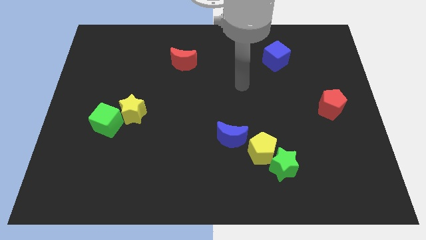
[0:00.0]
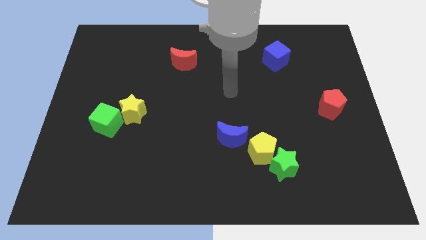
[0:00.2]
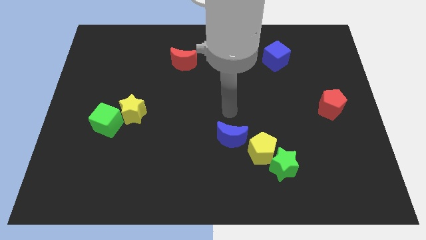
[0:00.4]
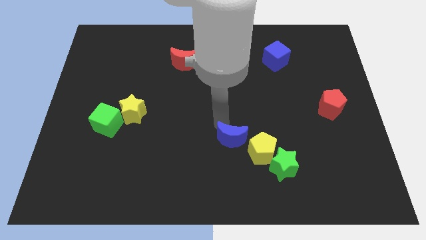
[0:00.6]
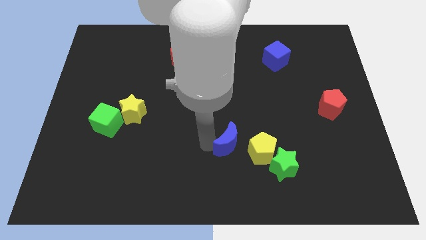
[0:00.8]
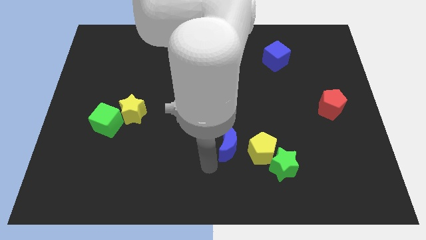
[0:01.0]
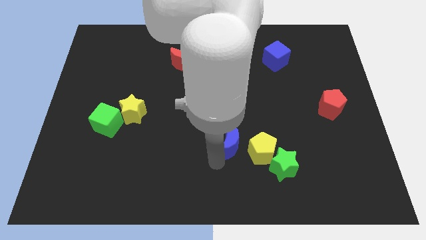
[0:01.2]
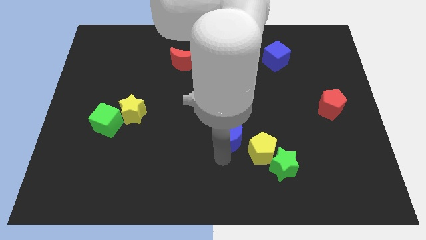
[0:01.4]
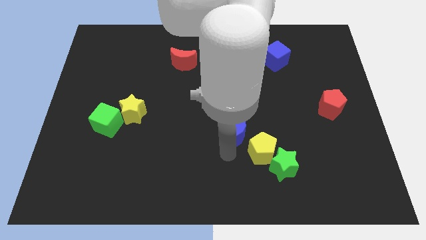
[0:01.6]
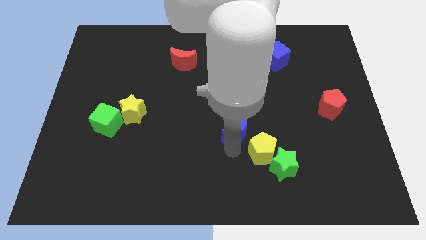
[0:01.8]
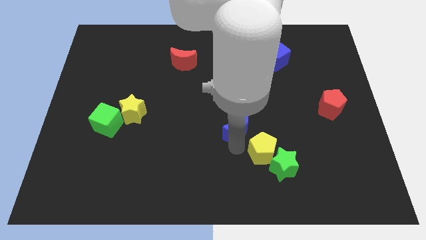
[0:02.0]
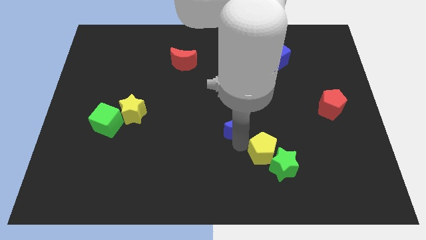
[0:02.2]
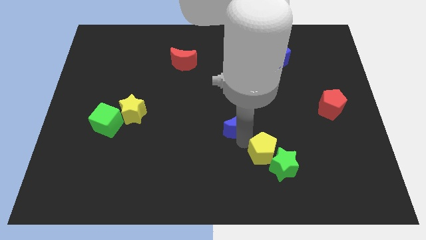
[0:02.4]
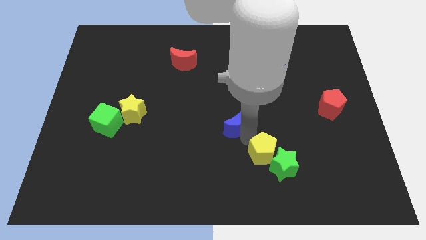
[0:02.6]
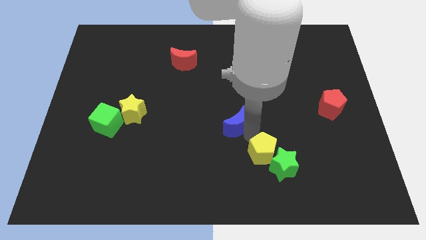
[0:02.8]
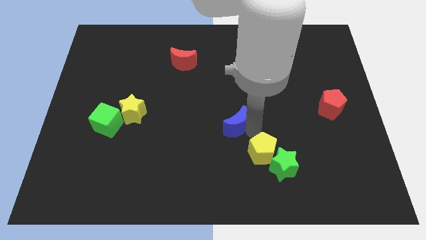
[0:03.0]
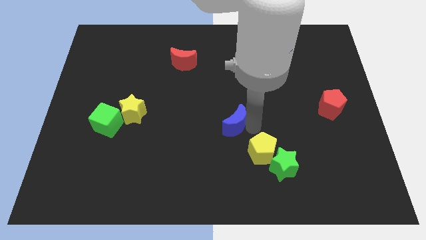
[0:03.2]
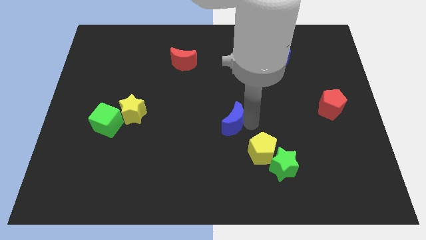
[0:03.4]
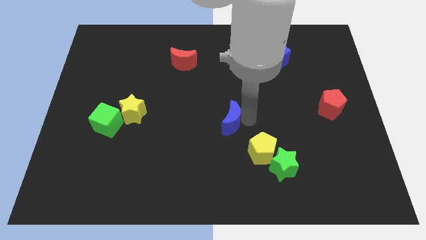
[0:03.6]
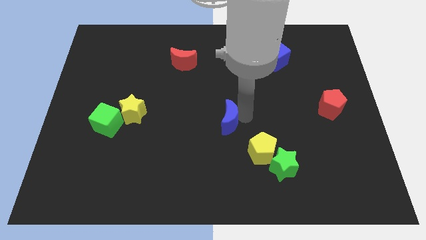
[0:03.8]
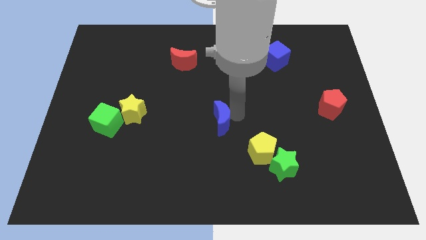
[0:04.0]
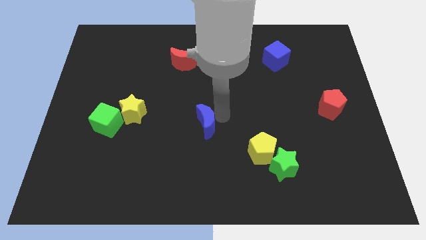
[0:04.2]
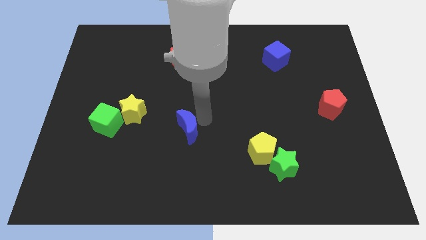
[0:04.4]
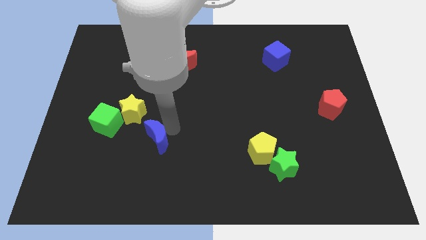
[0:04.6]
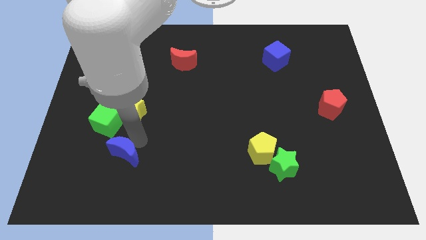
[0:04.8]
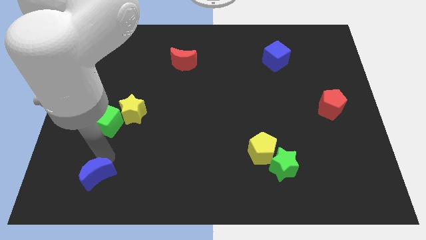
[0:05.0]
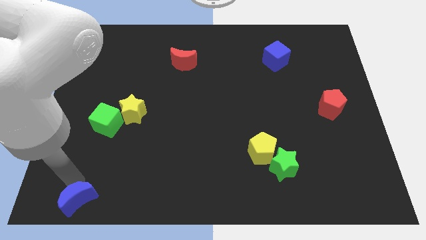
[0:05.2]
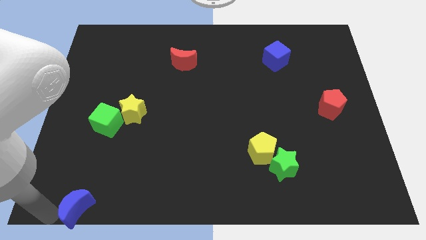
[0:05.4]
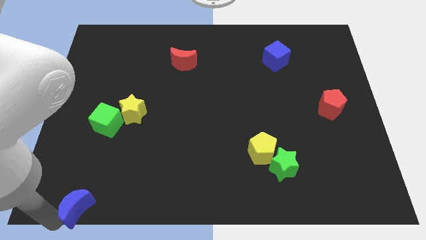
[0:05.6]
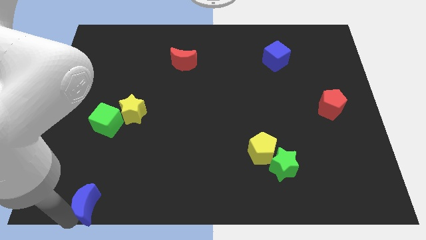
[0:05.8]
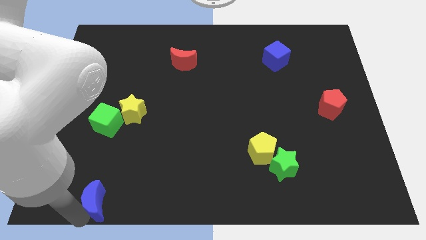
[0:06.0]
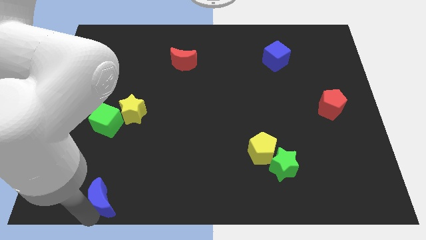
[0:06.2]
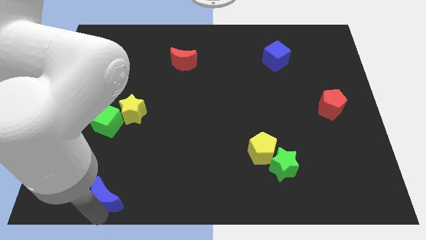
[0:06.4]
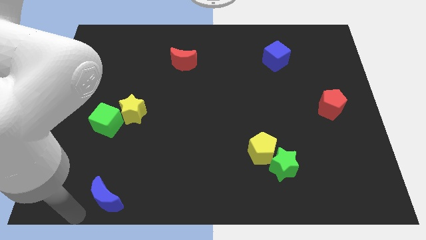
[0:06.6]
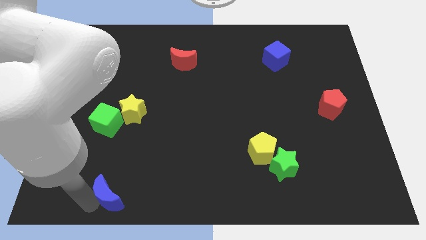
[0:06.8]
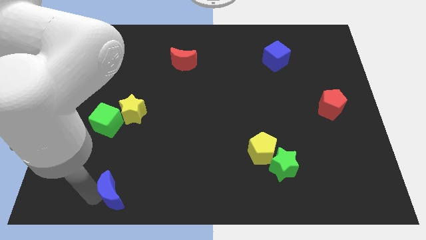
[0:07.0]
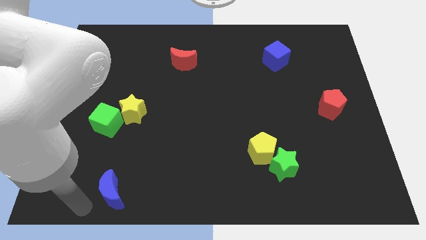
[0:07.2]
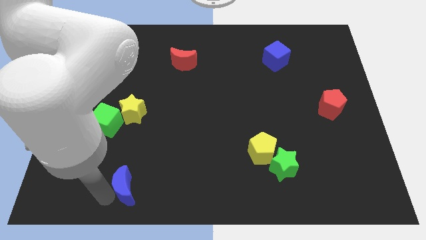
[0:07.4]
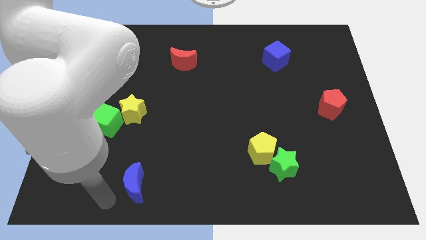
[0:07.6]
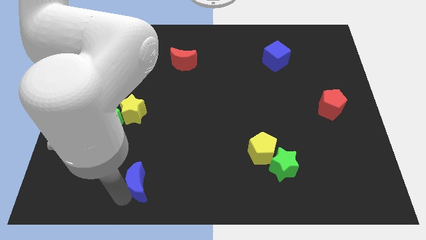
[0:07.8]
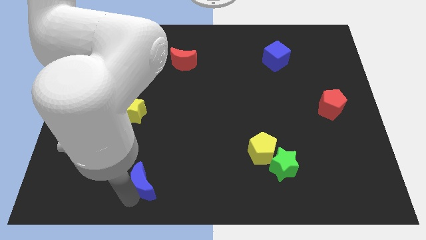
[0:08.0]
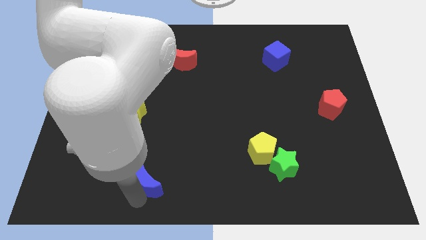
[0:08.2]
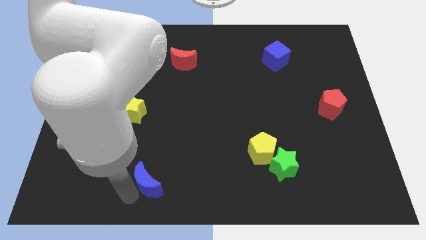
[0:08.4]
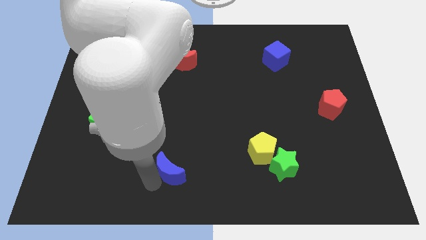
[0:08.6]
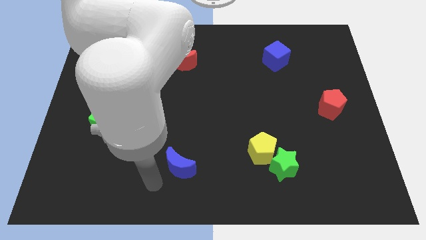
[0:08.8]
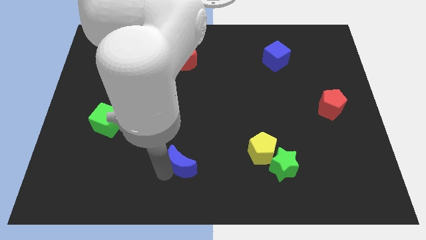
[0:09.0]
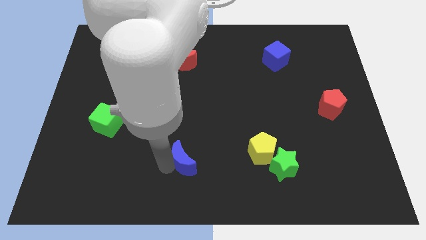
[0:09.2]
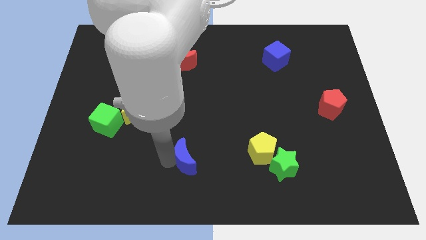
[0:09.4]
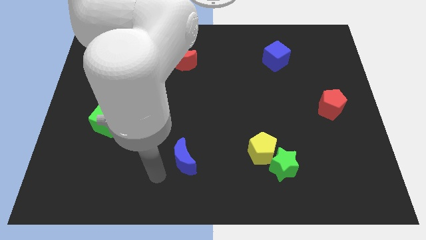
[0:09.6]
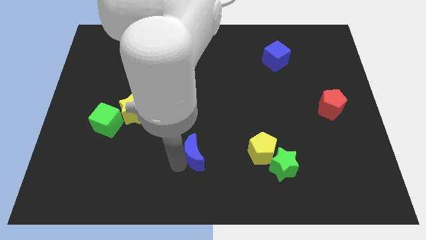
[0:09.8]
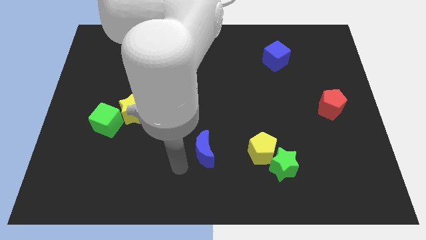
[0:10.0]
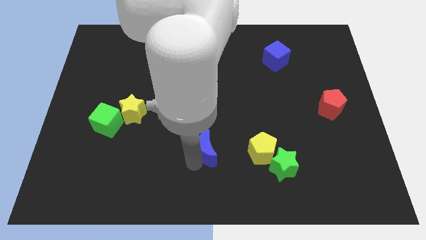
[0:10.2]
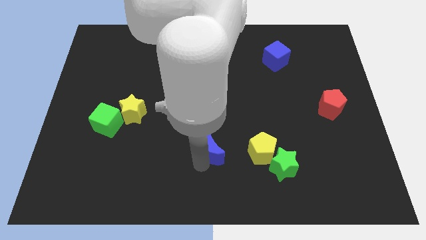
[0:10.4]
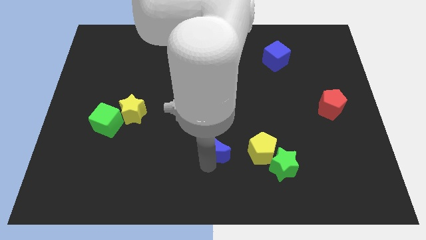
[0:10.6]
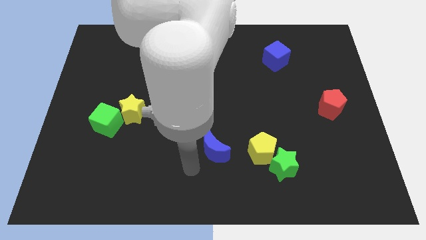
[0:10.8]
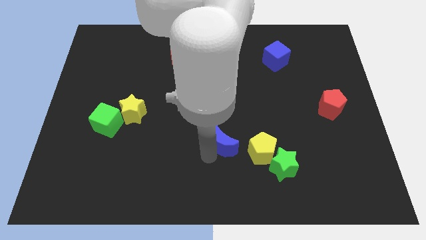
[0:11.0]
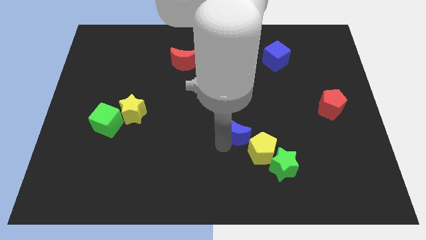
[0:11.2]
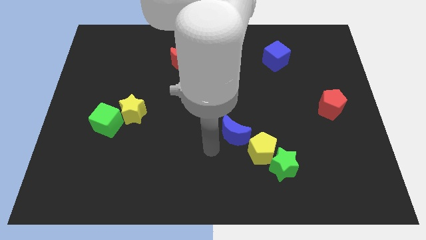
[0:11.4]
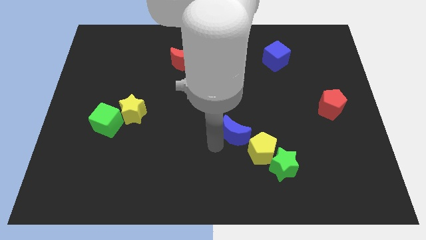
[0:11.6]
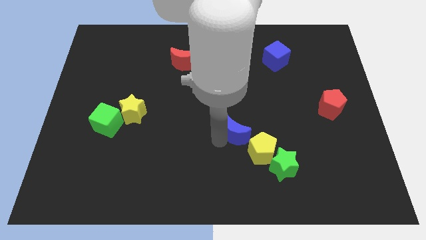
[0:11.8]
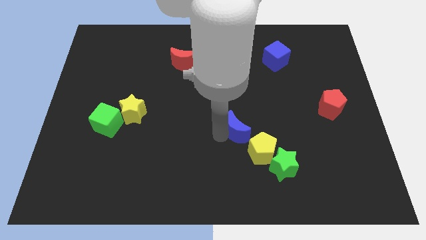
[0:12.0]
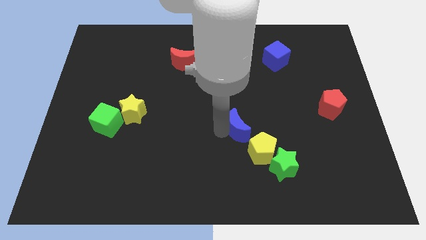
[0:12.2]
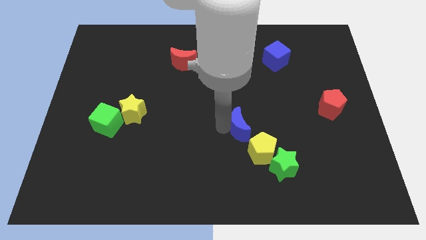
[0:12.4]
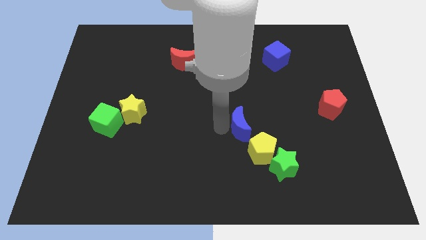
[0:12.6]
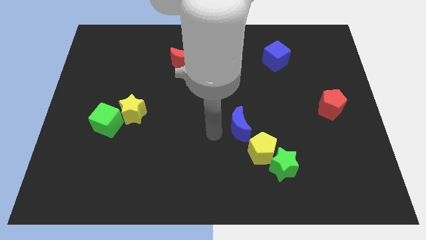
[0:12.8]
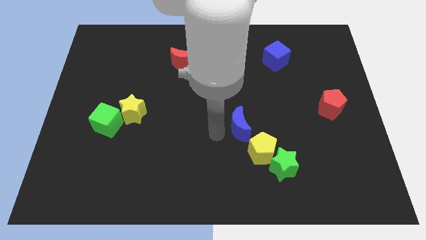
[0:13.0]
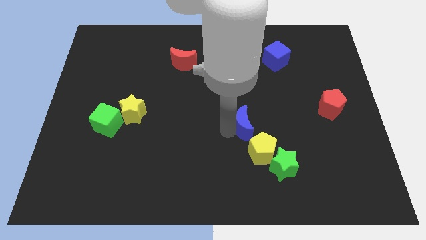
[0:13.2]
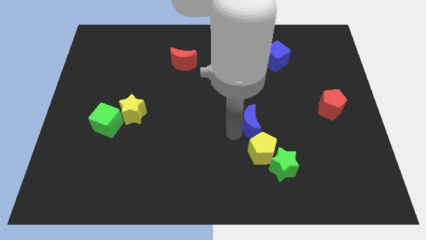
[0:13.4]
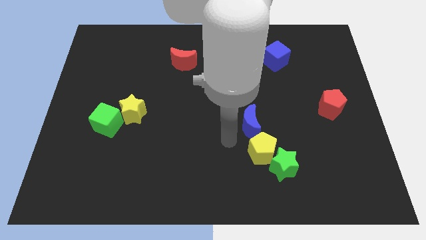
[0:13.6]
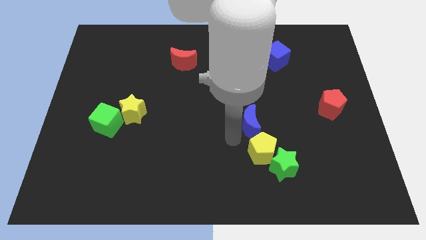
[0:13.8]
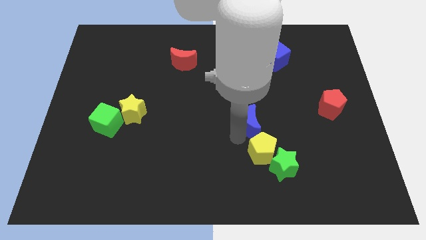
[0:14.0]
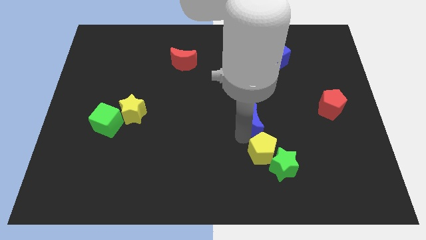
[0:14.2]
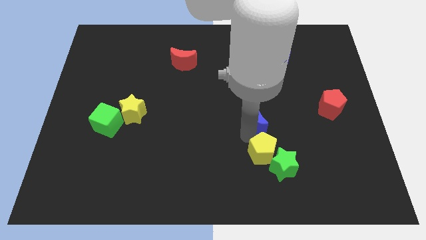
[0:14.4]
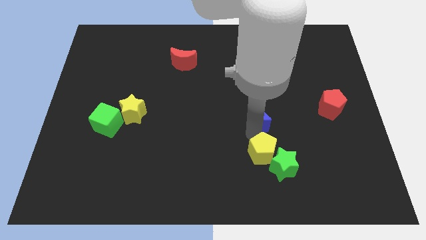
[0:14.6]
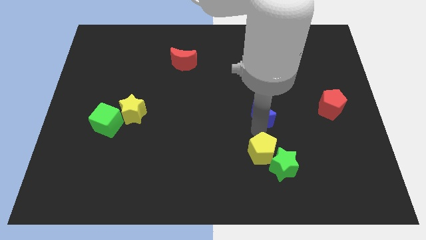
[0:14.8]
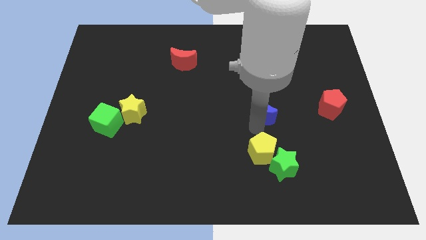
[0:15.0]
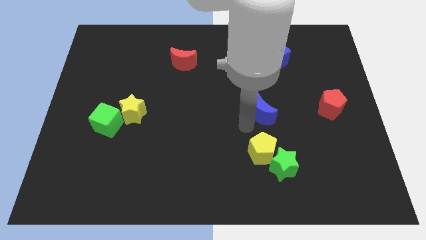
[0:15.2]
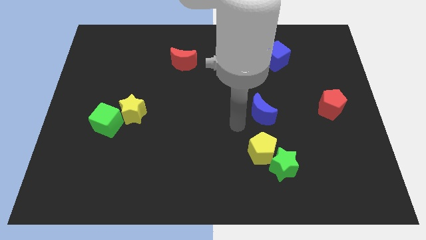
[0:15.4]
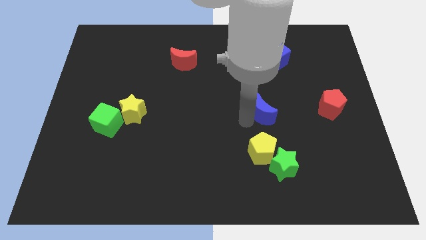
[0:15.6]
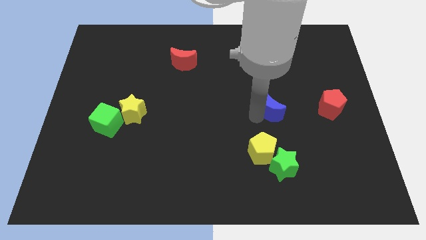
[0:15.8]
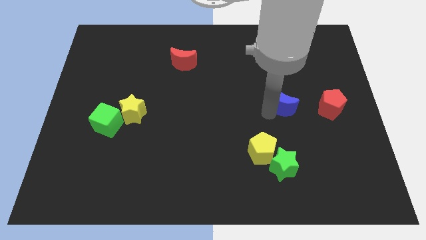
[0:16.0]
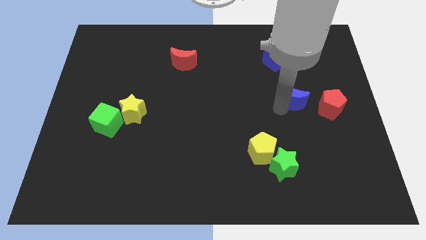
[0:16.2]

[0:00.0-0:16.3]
push the blue moon to the top left of the red pentagon
